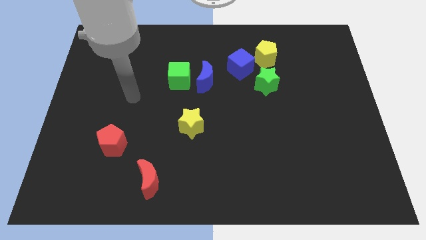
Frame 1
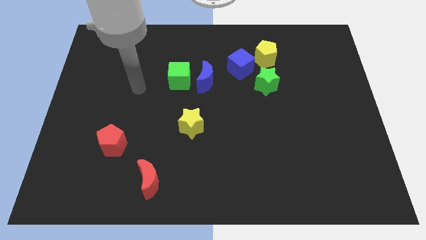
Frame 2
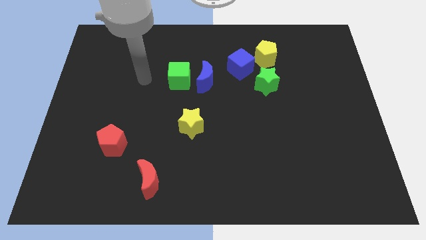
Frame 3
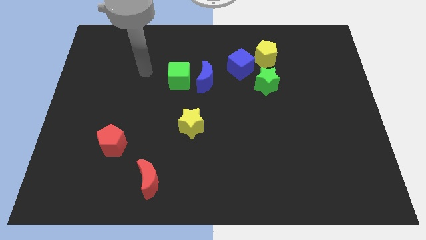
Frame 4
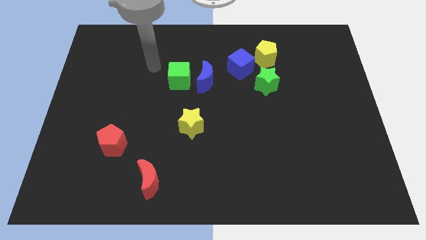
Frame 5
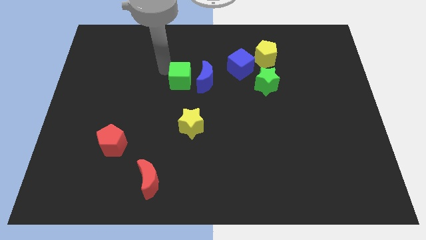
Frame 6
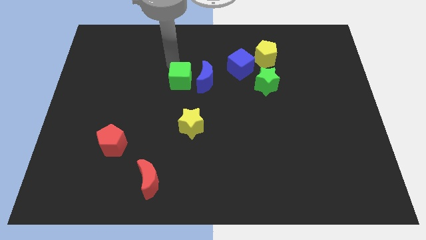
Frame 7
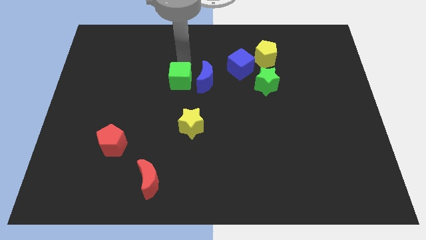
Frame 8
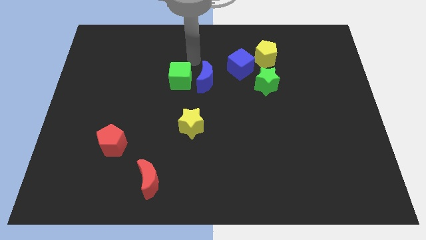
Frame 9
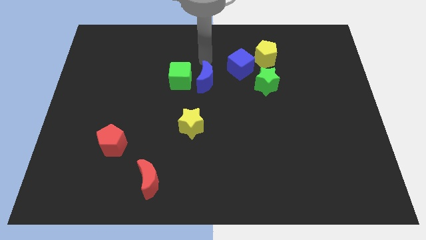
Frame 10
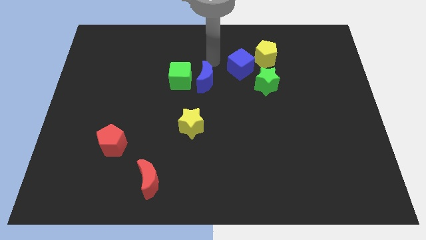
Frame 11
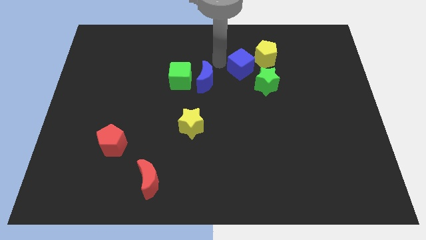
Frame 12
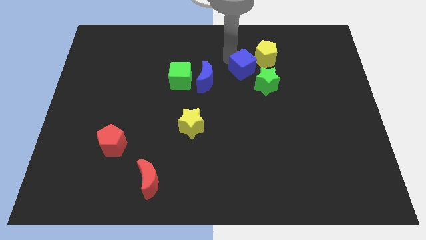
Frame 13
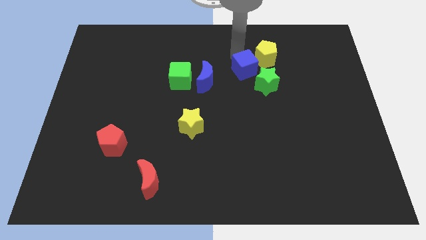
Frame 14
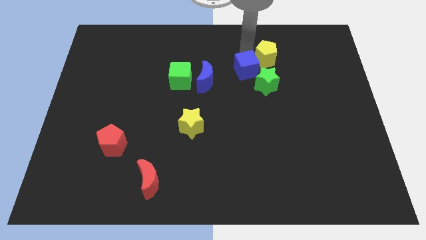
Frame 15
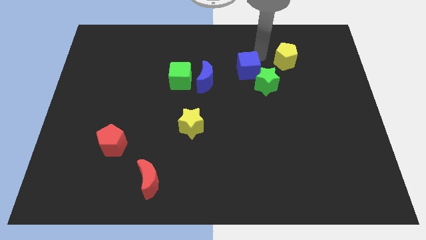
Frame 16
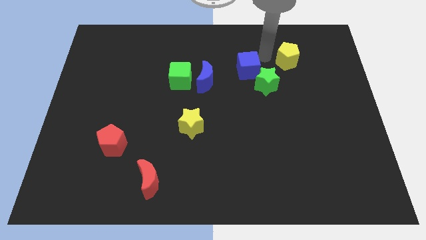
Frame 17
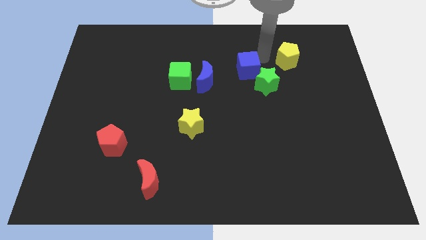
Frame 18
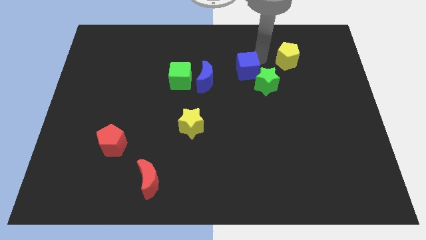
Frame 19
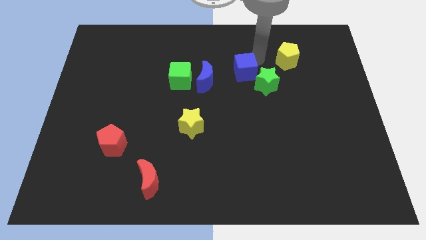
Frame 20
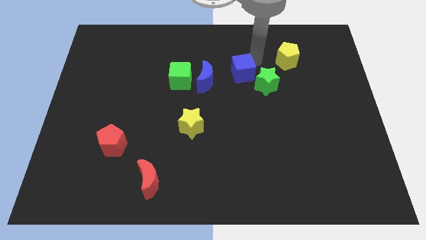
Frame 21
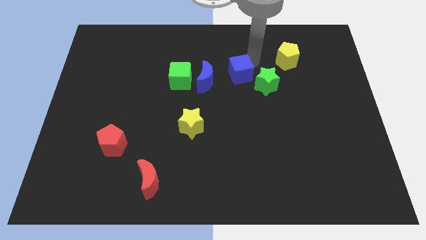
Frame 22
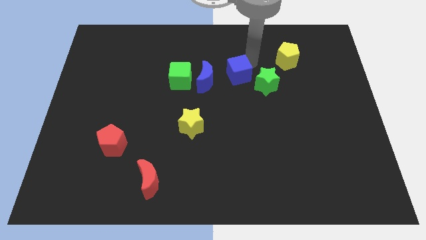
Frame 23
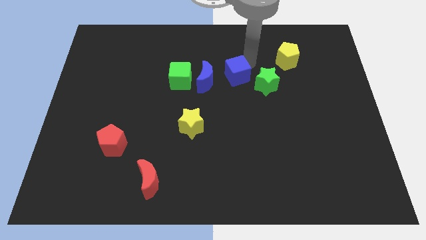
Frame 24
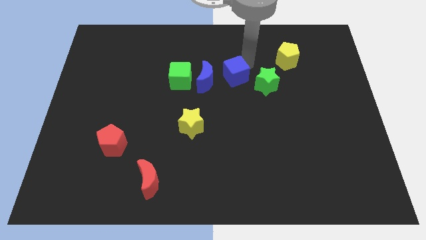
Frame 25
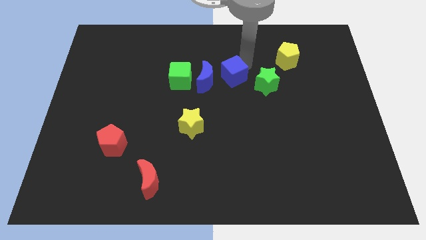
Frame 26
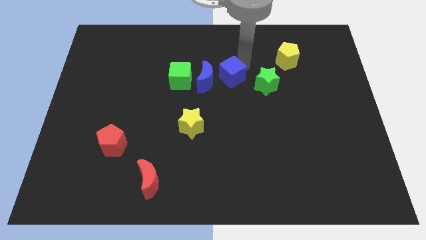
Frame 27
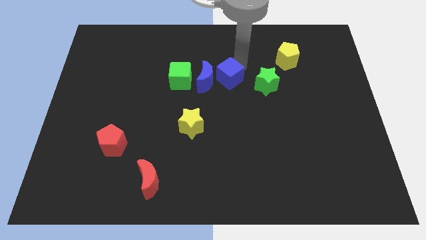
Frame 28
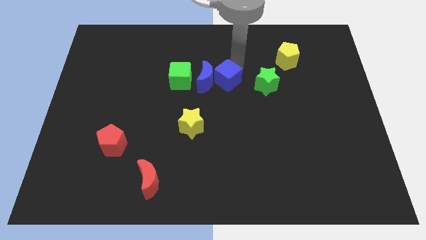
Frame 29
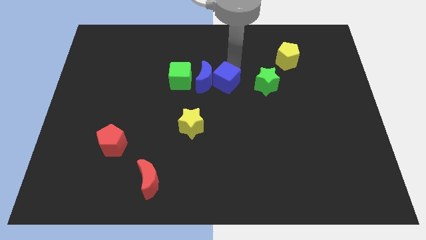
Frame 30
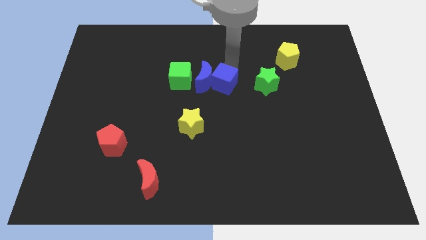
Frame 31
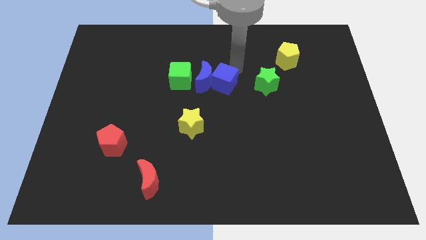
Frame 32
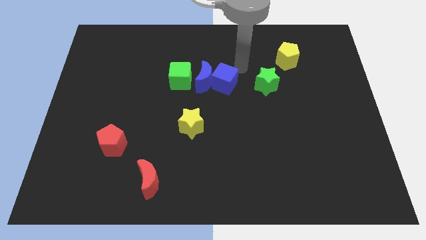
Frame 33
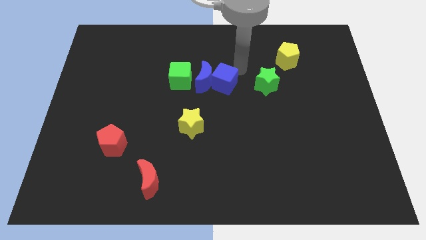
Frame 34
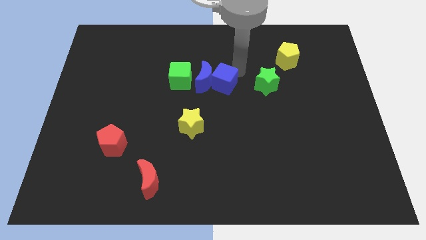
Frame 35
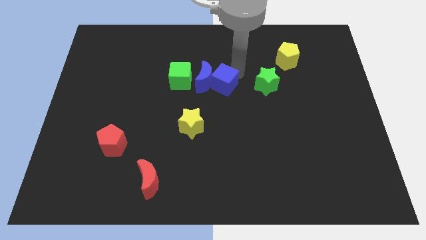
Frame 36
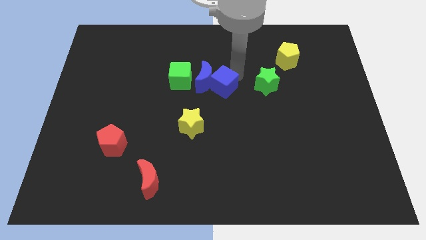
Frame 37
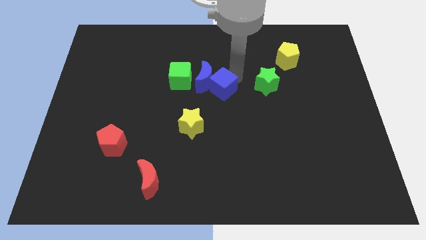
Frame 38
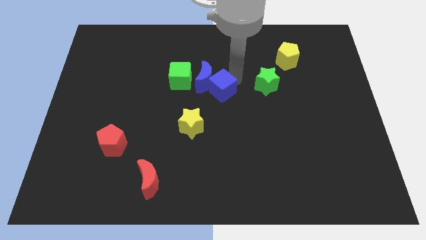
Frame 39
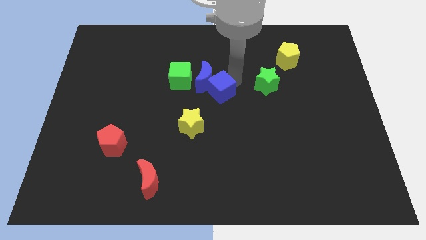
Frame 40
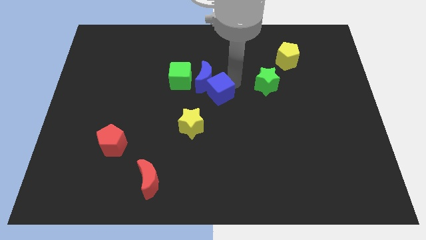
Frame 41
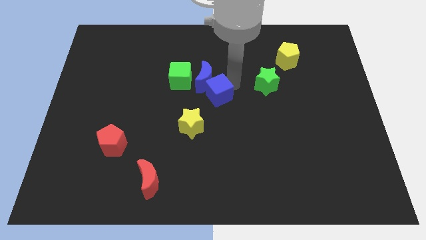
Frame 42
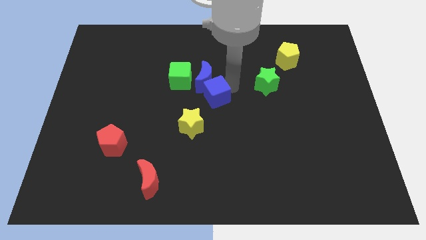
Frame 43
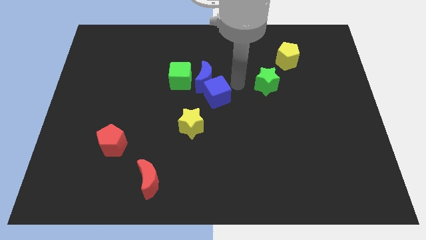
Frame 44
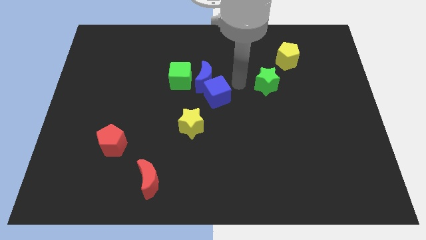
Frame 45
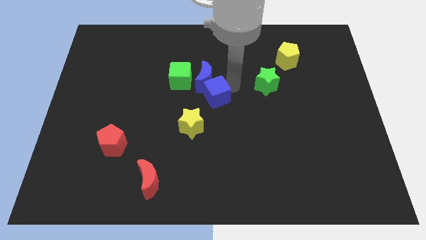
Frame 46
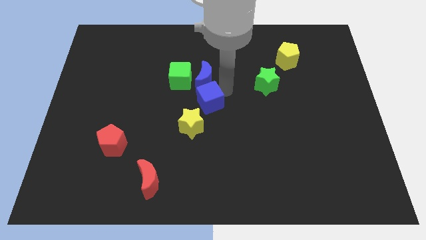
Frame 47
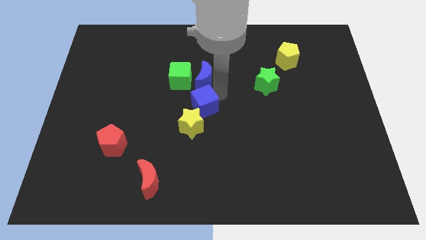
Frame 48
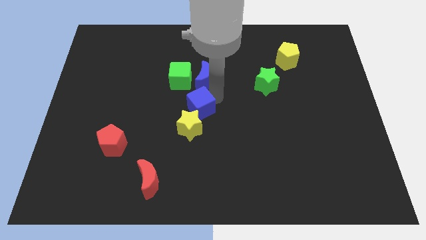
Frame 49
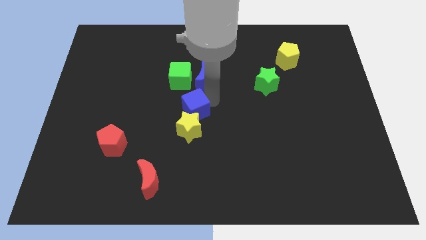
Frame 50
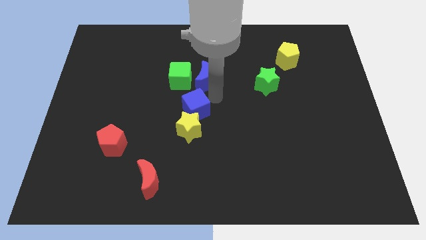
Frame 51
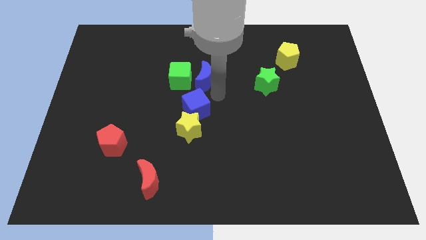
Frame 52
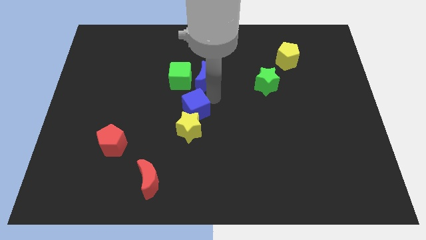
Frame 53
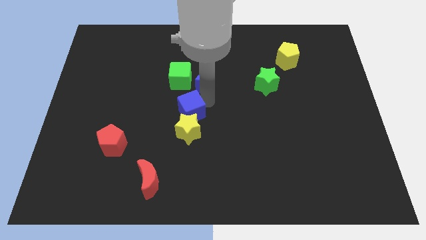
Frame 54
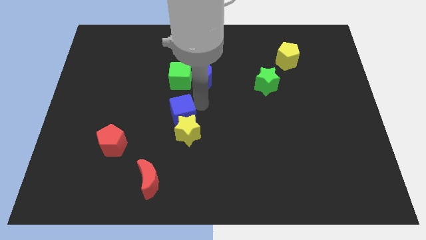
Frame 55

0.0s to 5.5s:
slide the blue cube downwards and then to the left

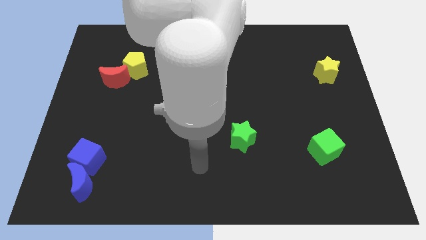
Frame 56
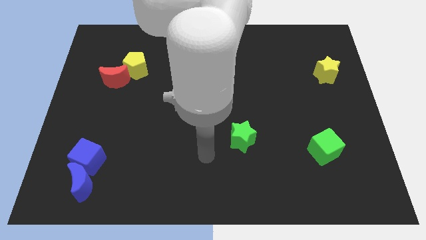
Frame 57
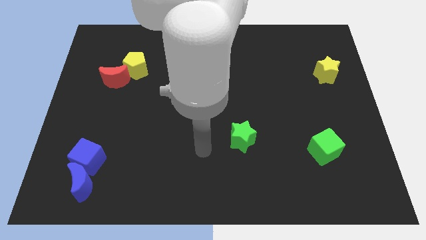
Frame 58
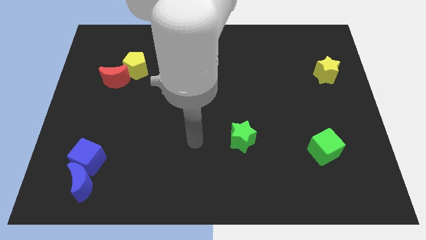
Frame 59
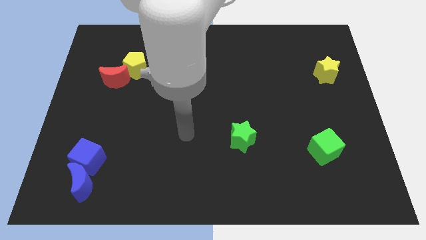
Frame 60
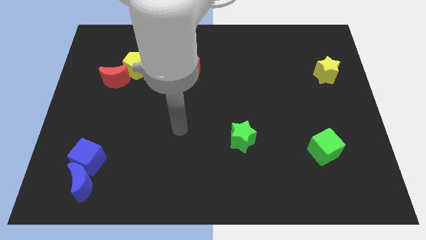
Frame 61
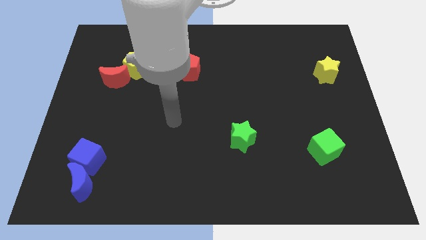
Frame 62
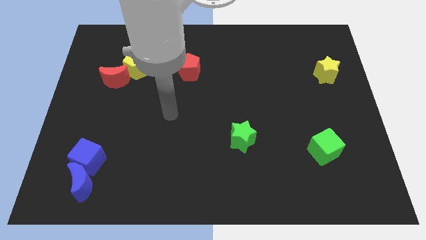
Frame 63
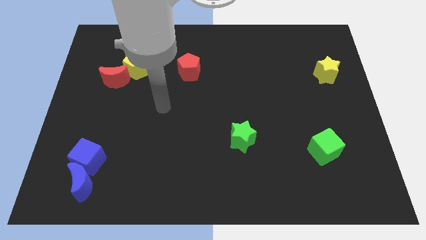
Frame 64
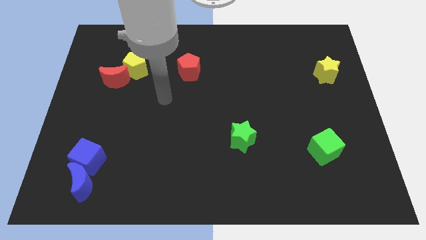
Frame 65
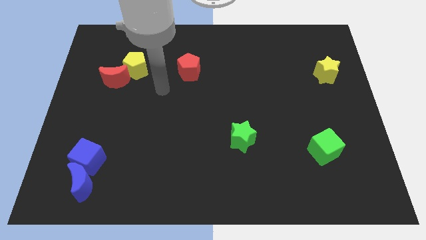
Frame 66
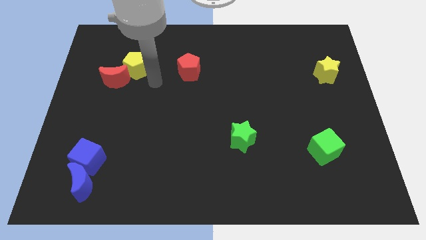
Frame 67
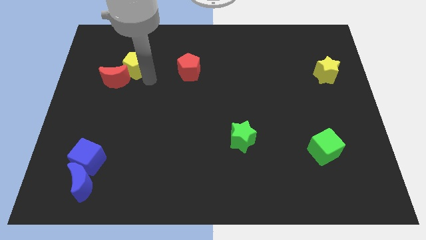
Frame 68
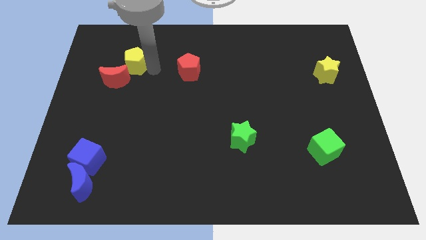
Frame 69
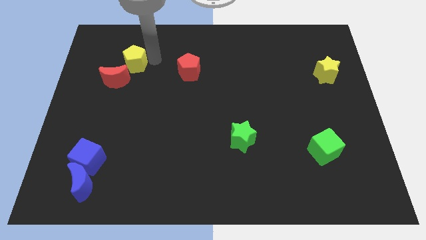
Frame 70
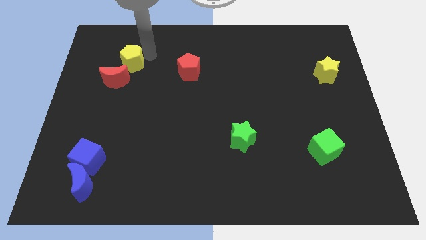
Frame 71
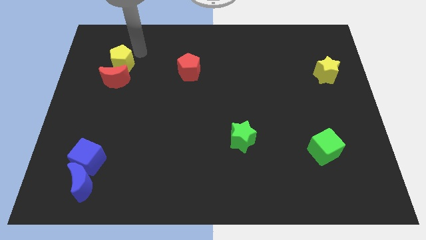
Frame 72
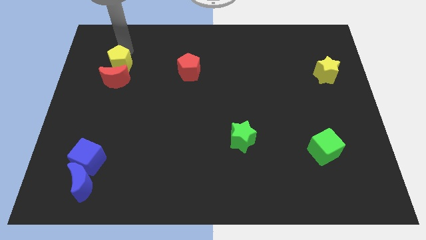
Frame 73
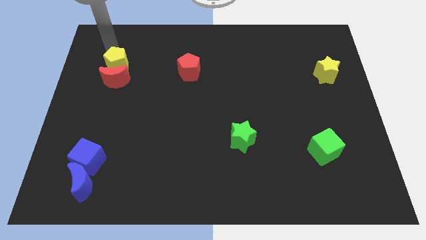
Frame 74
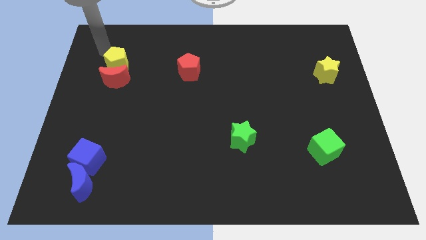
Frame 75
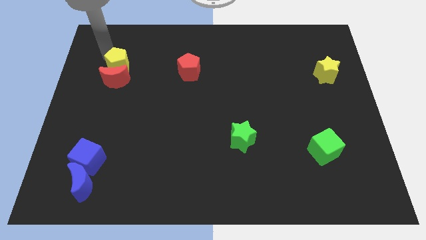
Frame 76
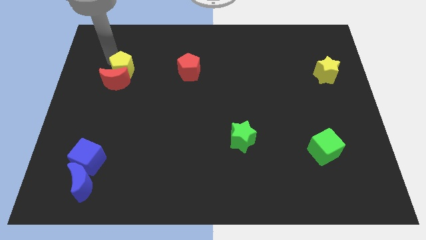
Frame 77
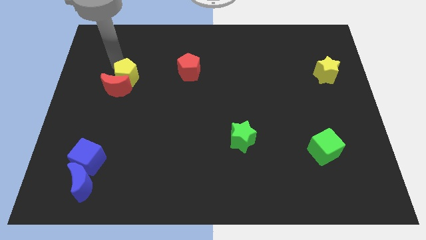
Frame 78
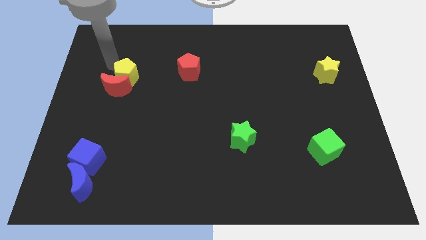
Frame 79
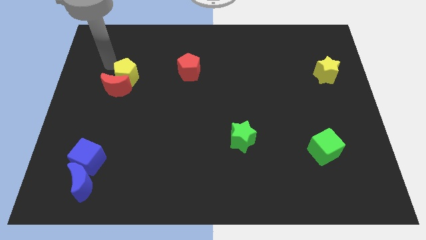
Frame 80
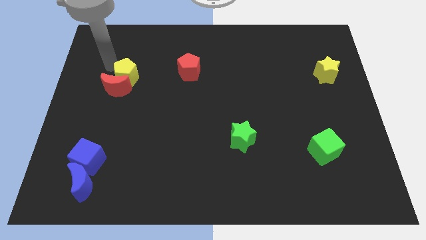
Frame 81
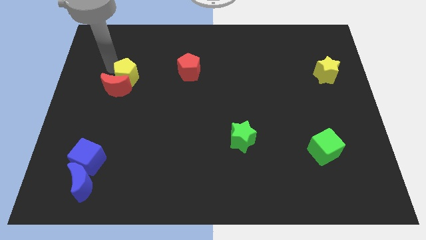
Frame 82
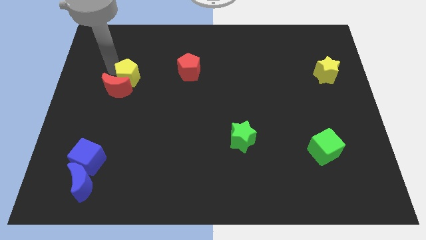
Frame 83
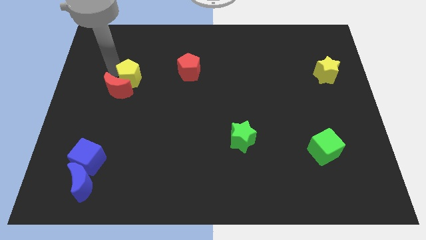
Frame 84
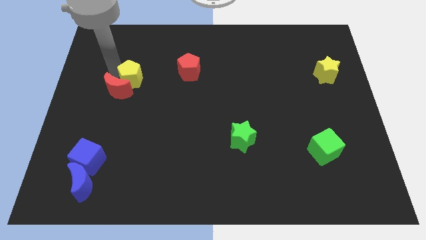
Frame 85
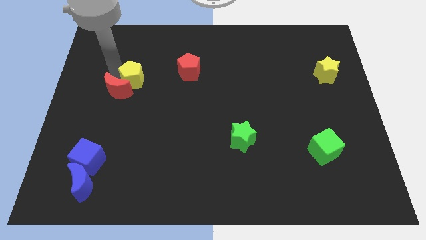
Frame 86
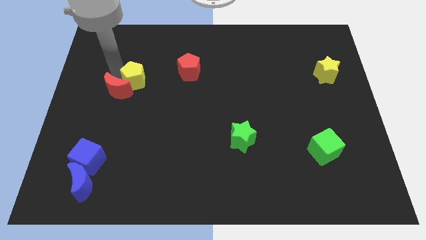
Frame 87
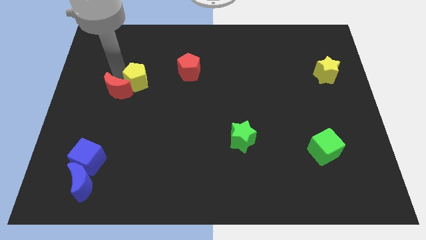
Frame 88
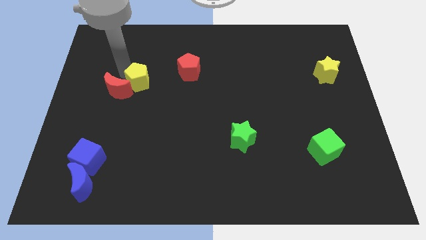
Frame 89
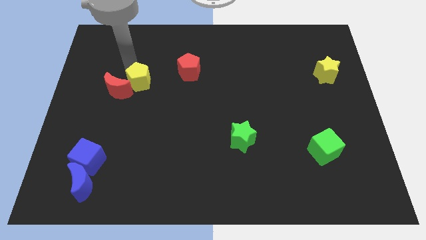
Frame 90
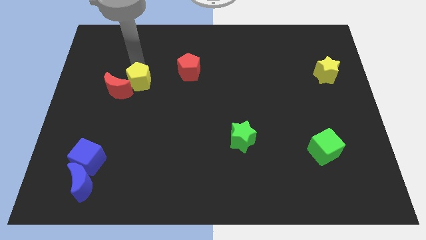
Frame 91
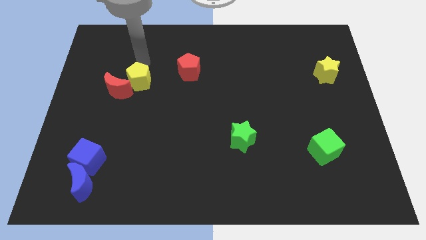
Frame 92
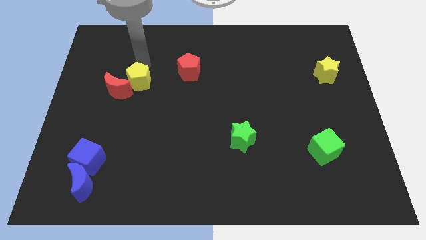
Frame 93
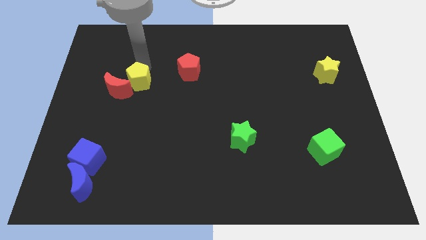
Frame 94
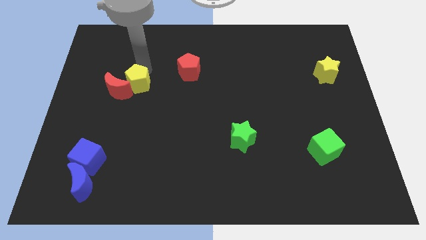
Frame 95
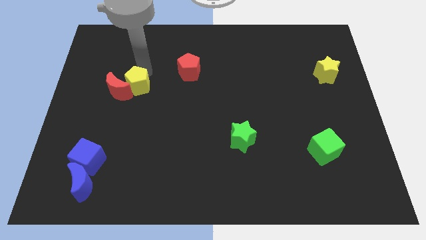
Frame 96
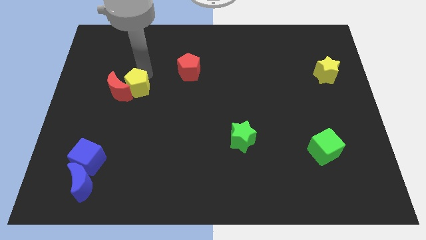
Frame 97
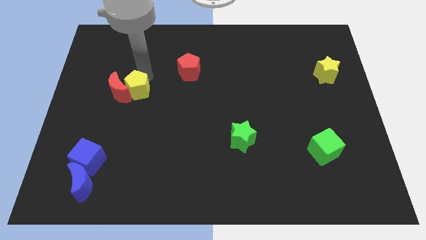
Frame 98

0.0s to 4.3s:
move the yellow pentagon downwards a bit
